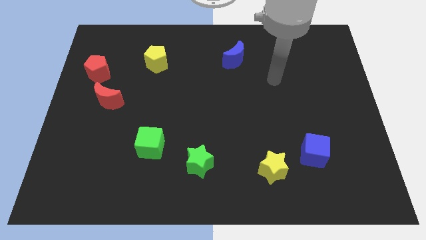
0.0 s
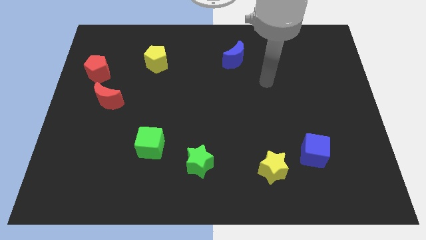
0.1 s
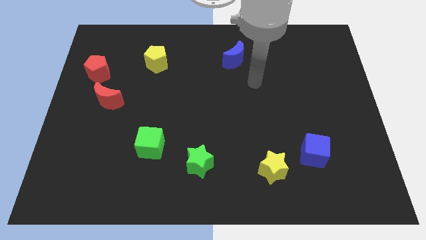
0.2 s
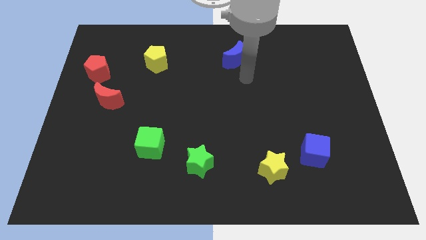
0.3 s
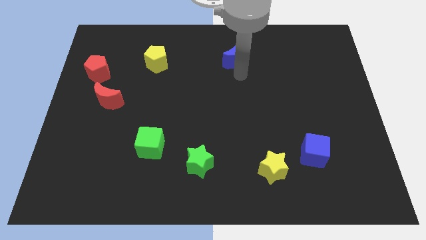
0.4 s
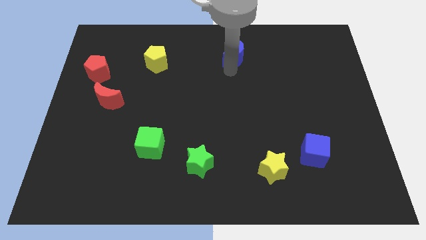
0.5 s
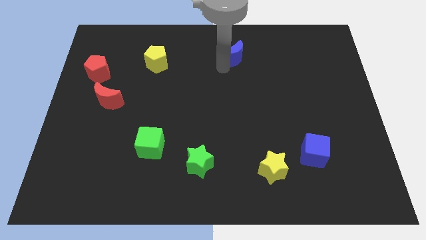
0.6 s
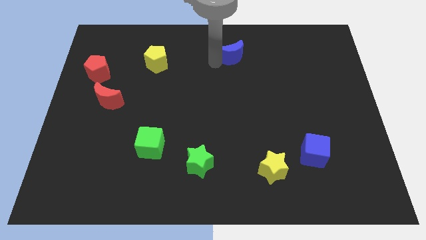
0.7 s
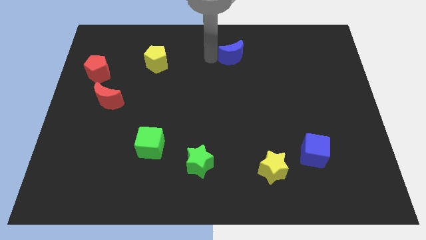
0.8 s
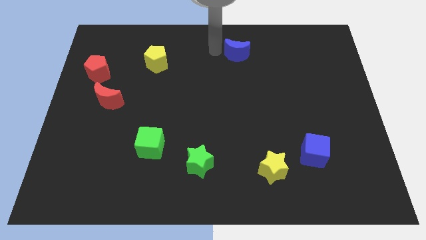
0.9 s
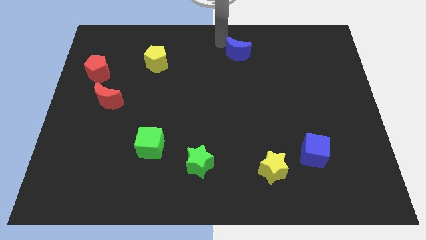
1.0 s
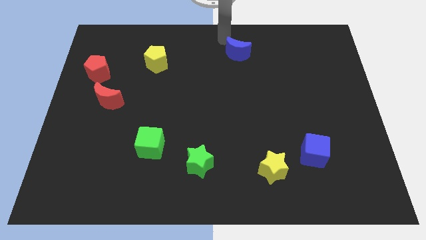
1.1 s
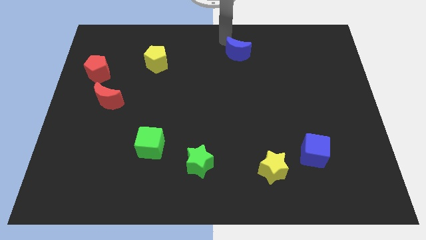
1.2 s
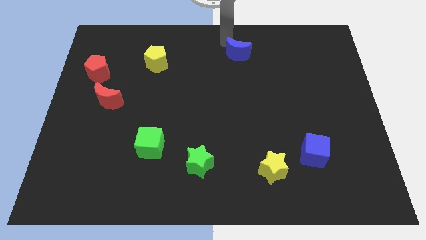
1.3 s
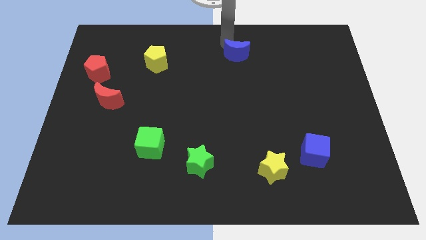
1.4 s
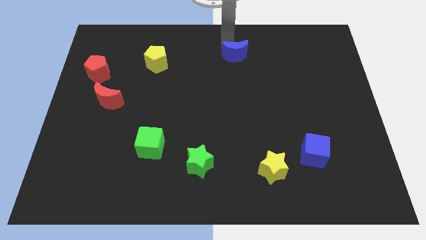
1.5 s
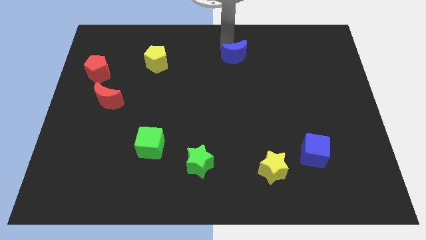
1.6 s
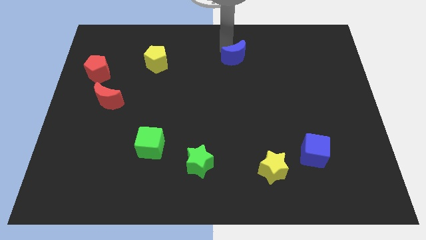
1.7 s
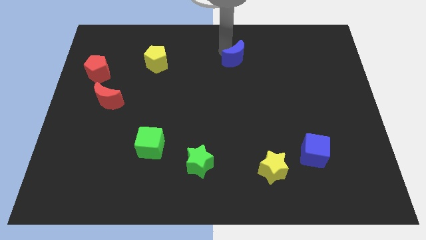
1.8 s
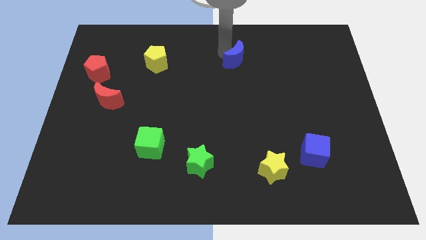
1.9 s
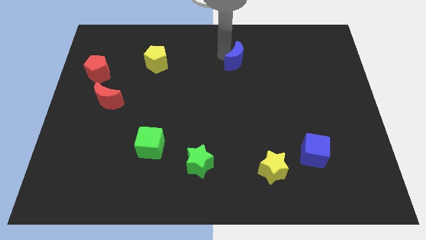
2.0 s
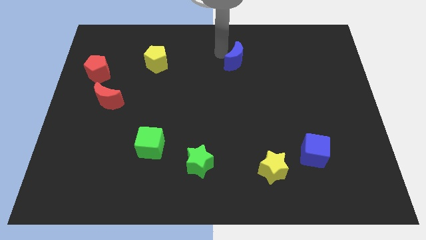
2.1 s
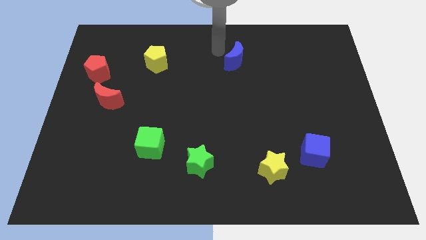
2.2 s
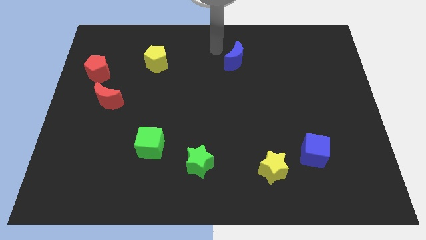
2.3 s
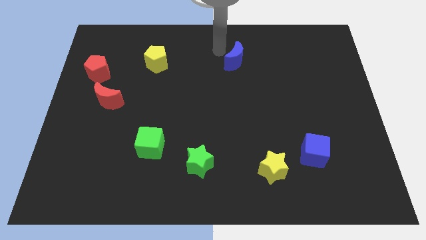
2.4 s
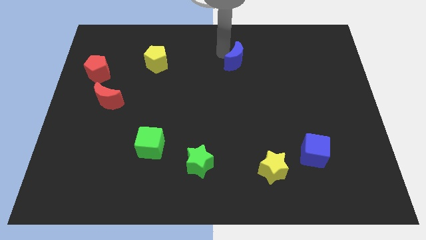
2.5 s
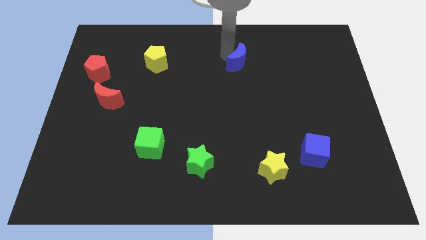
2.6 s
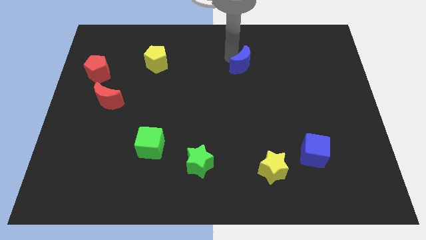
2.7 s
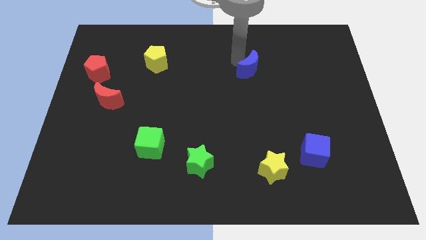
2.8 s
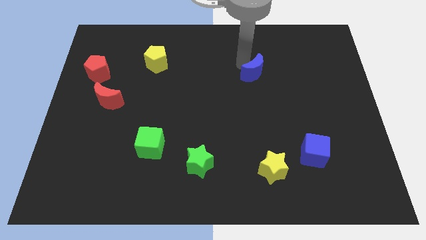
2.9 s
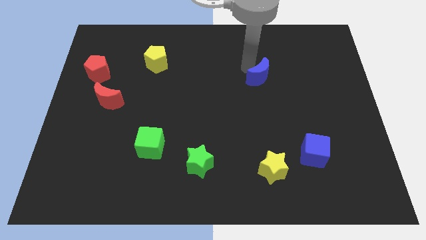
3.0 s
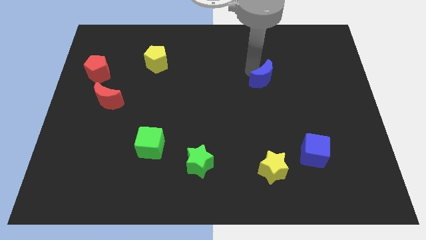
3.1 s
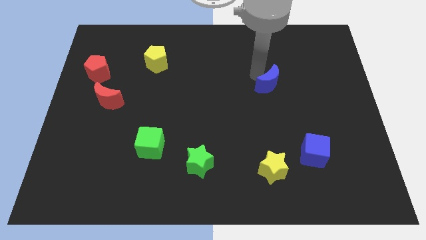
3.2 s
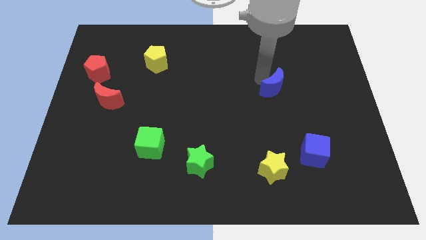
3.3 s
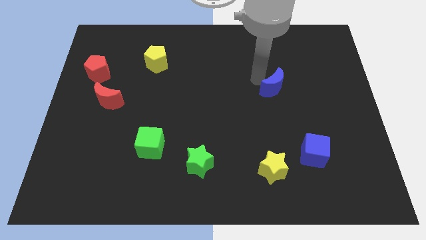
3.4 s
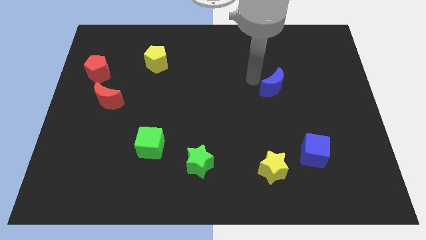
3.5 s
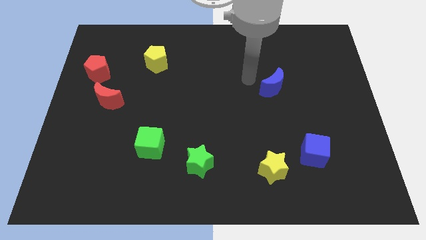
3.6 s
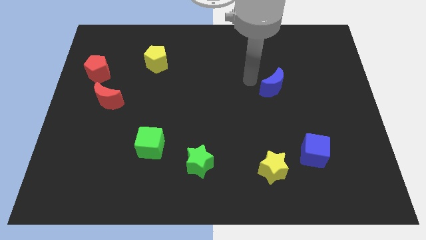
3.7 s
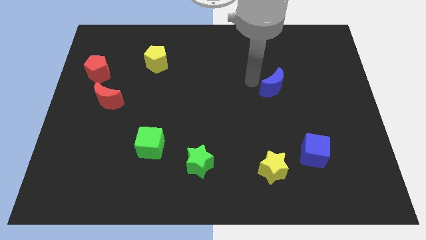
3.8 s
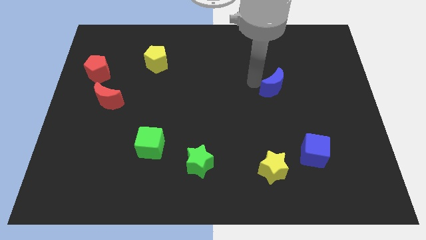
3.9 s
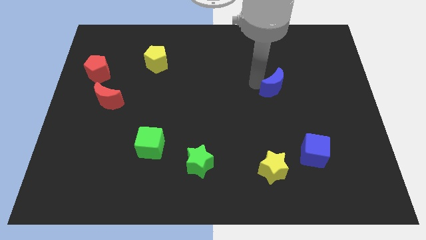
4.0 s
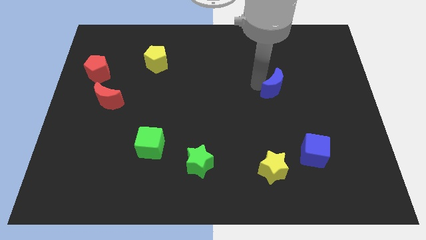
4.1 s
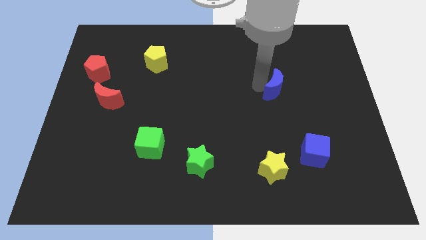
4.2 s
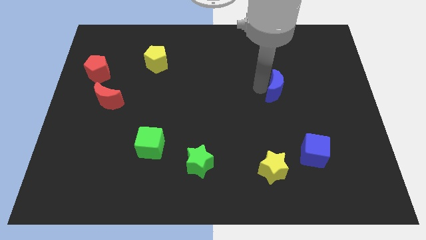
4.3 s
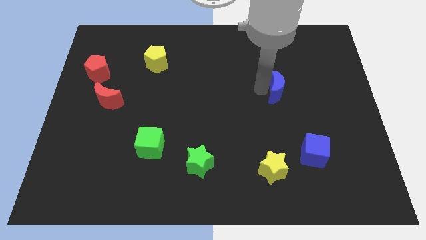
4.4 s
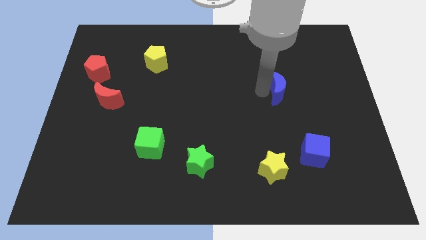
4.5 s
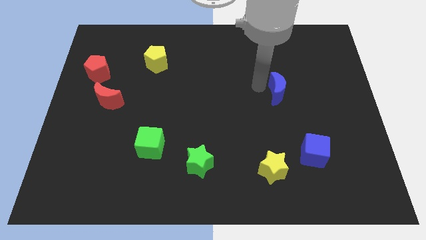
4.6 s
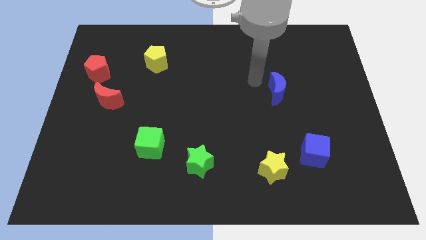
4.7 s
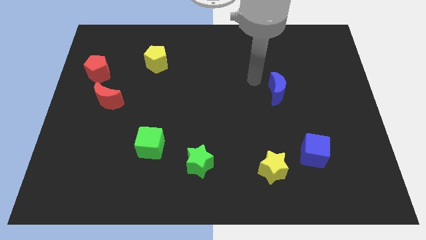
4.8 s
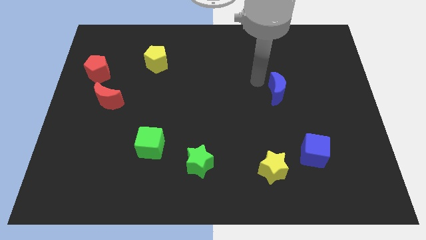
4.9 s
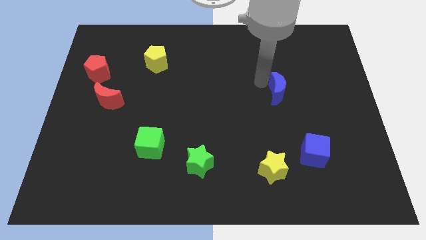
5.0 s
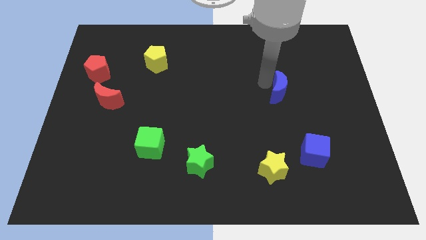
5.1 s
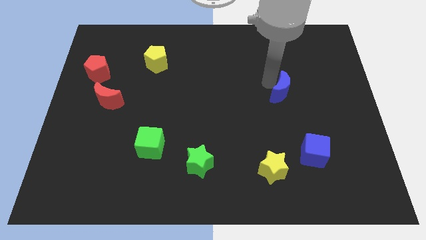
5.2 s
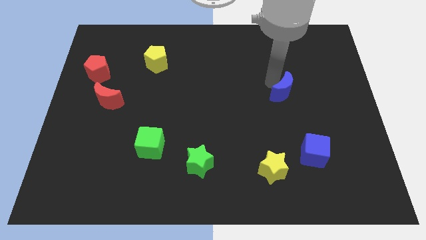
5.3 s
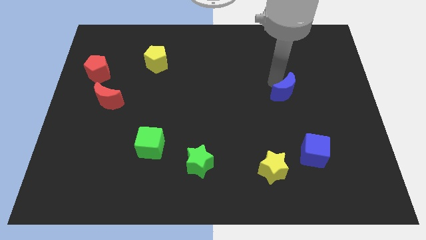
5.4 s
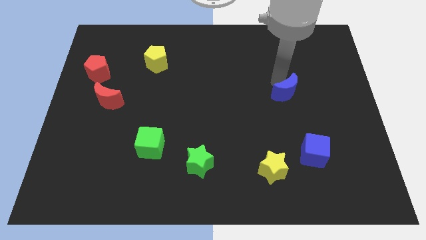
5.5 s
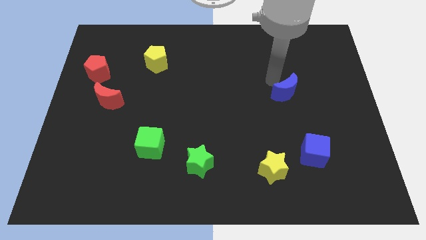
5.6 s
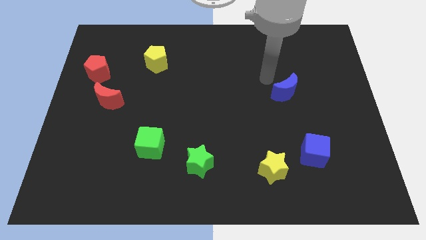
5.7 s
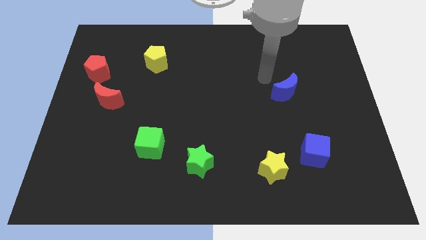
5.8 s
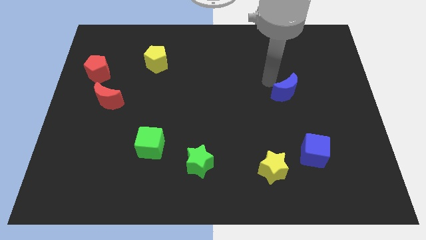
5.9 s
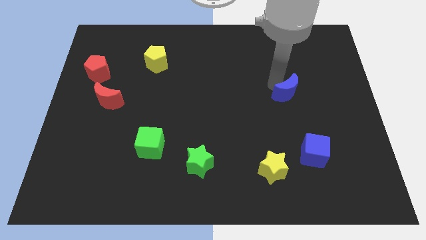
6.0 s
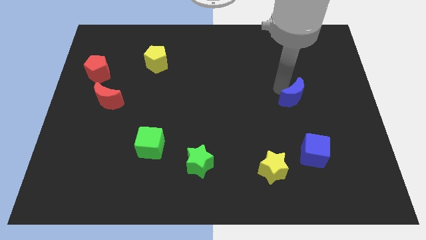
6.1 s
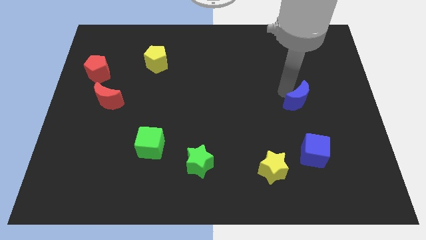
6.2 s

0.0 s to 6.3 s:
slide the blue moon down and to the right diagonally

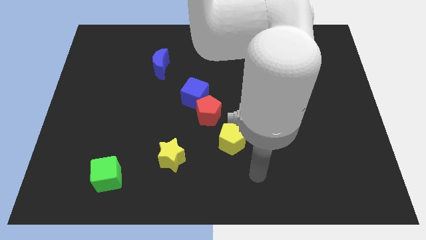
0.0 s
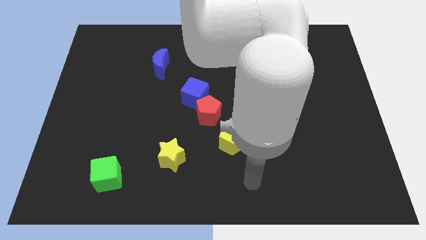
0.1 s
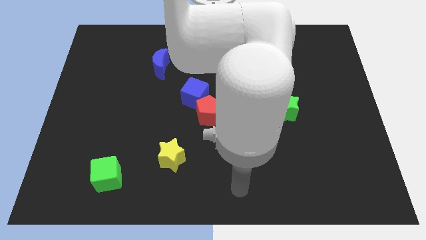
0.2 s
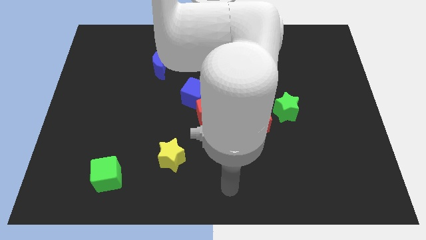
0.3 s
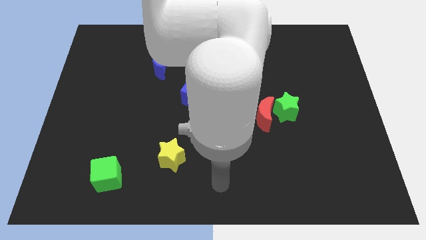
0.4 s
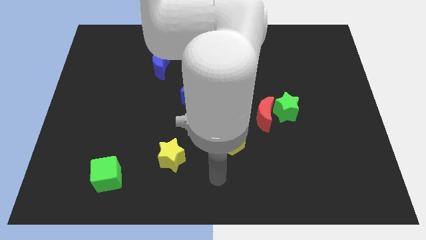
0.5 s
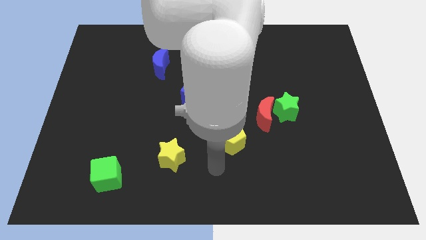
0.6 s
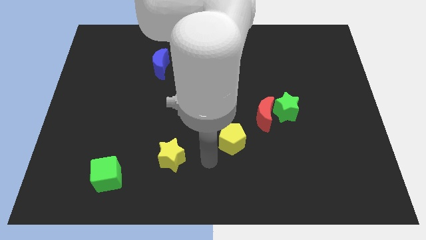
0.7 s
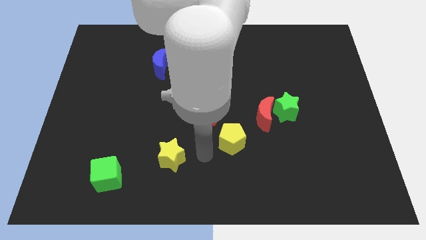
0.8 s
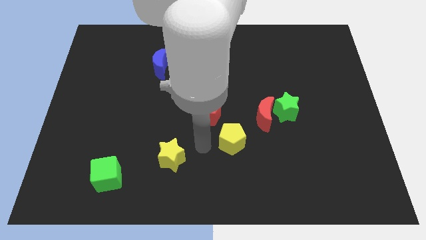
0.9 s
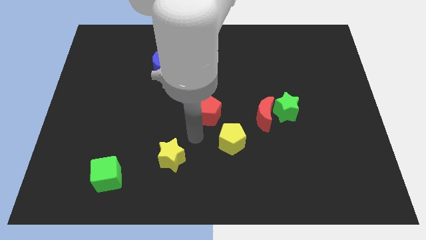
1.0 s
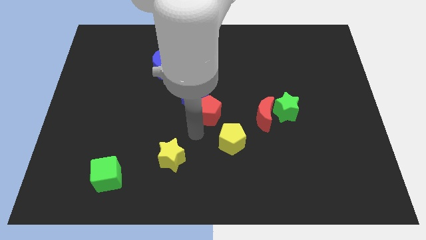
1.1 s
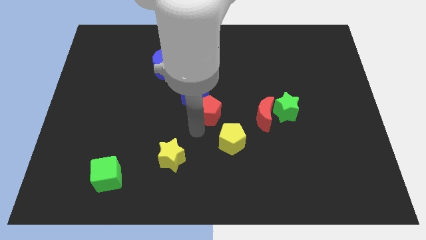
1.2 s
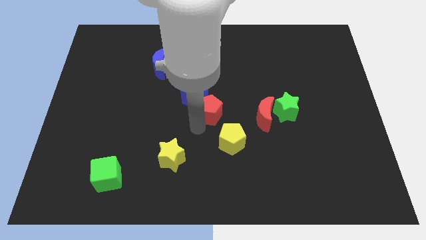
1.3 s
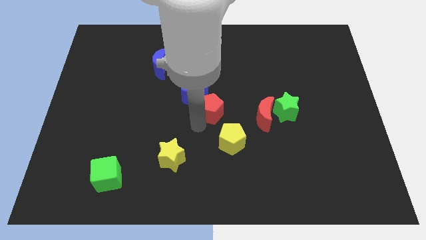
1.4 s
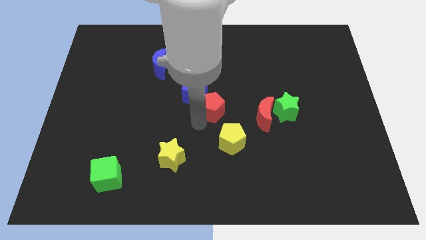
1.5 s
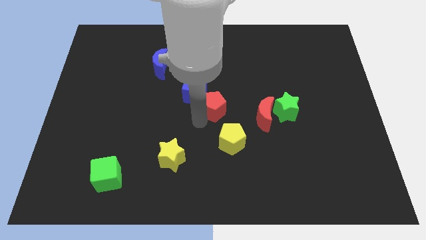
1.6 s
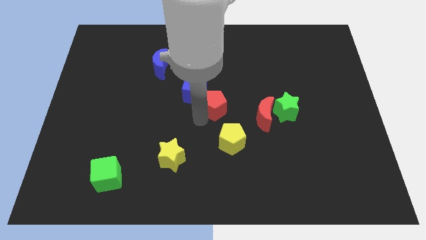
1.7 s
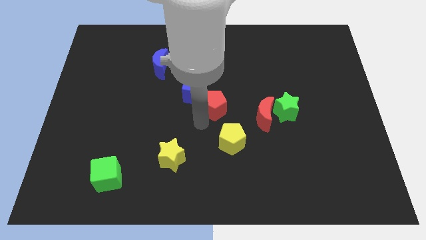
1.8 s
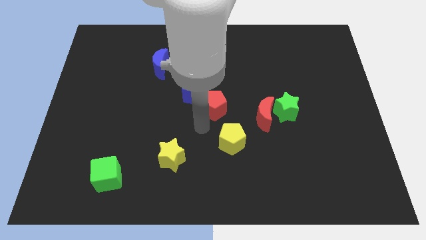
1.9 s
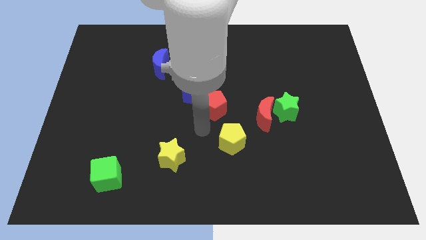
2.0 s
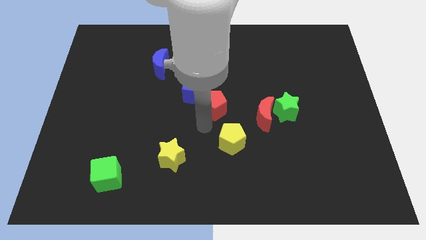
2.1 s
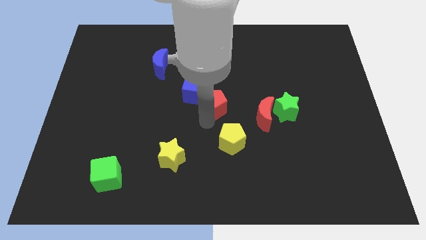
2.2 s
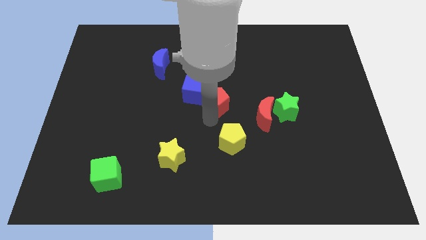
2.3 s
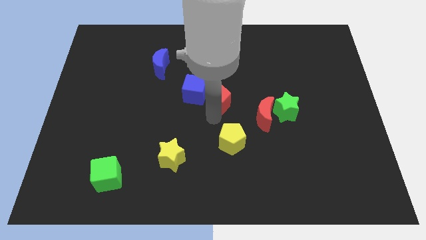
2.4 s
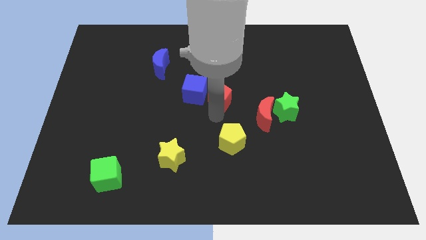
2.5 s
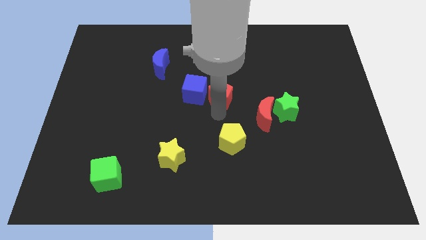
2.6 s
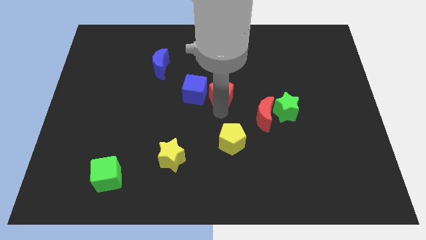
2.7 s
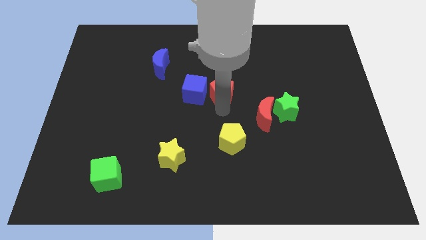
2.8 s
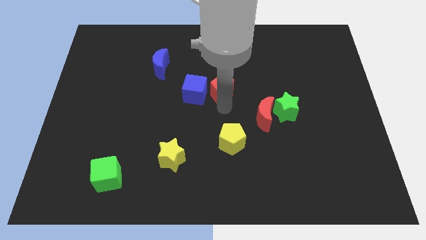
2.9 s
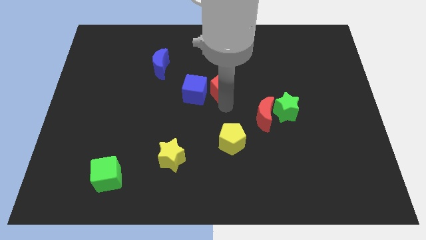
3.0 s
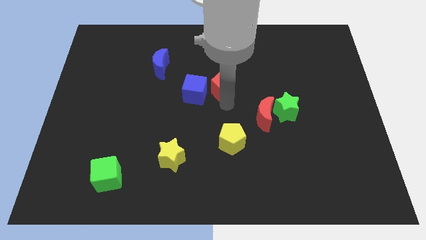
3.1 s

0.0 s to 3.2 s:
move the red pentagon somewhat upwards
